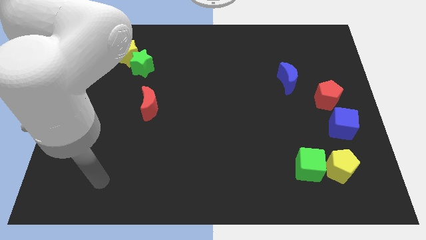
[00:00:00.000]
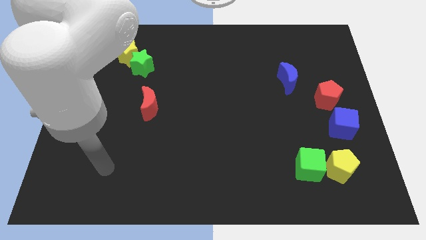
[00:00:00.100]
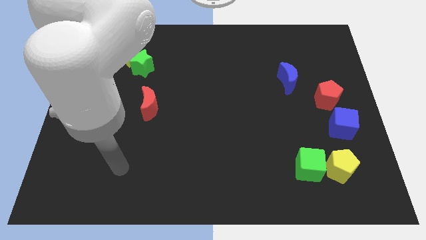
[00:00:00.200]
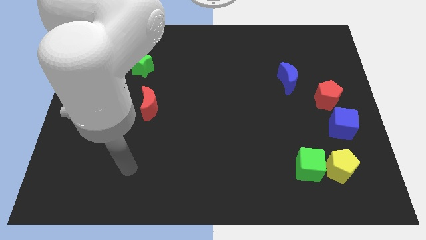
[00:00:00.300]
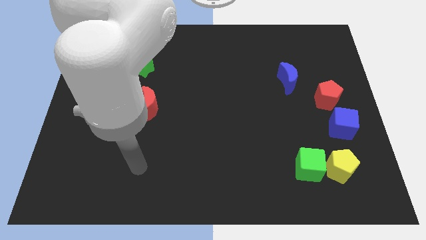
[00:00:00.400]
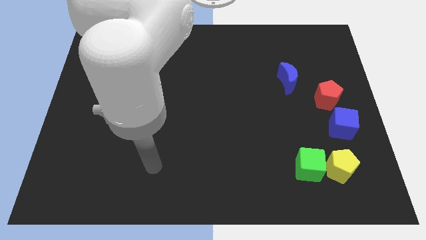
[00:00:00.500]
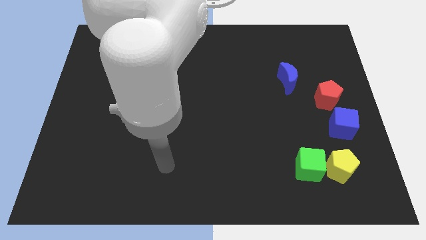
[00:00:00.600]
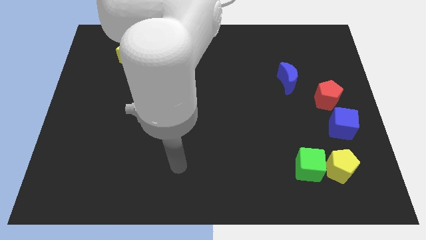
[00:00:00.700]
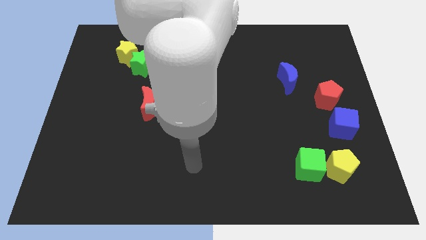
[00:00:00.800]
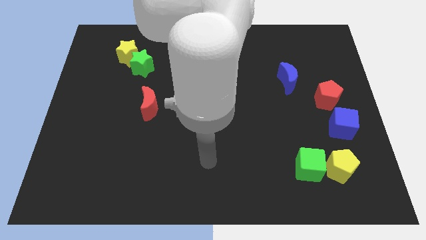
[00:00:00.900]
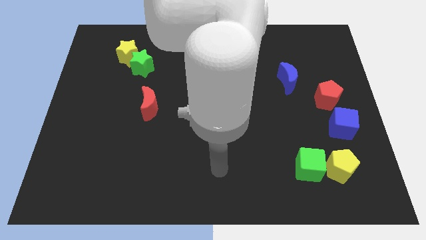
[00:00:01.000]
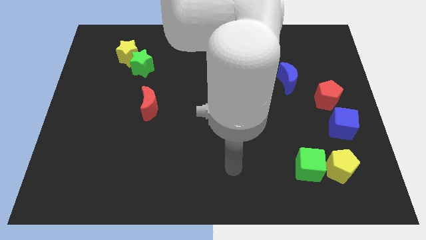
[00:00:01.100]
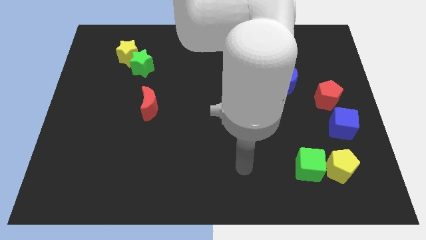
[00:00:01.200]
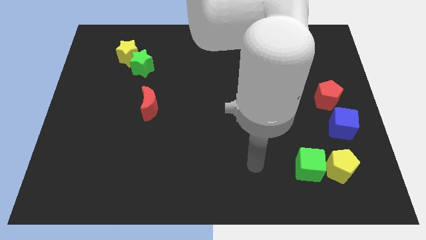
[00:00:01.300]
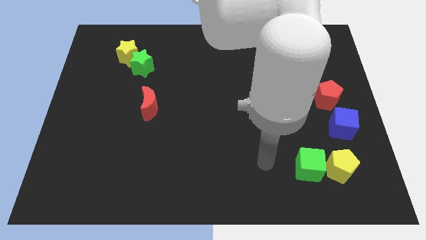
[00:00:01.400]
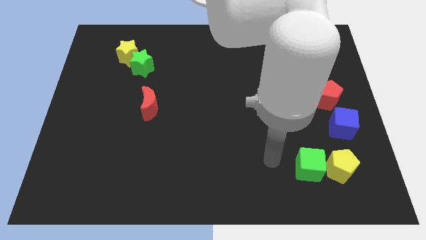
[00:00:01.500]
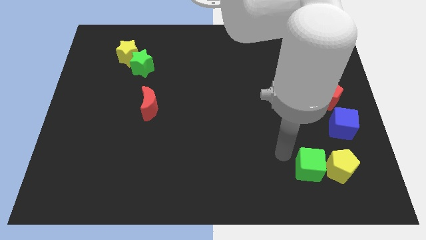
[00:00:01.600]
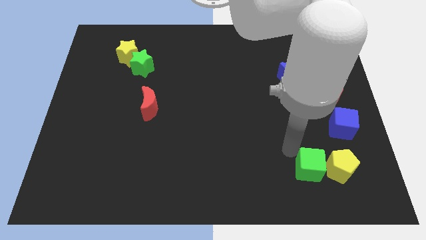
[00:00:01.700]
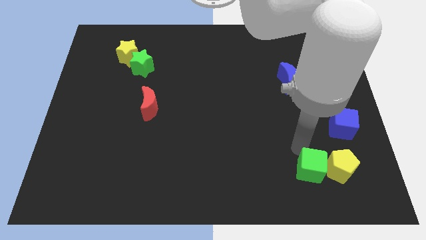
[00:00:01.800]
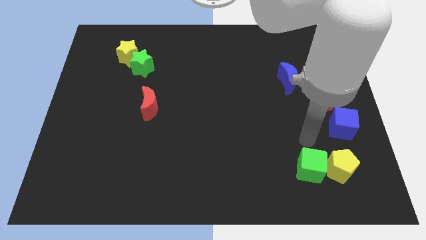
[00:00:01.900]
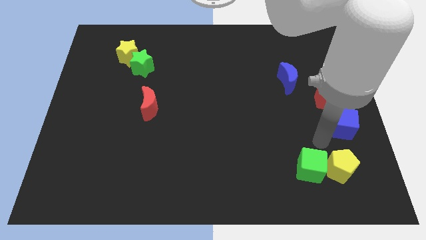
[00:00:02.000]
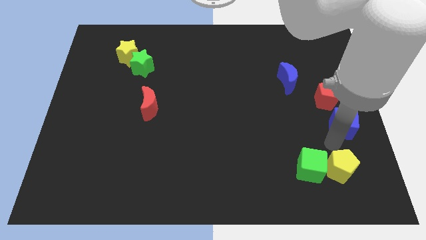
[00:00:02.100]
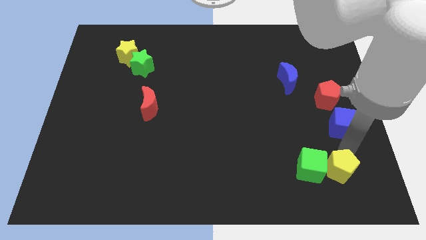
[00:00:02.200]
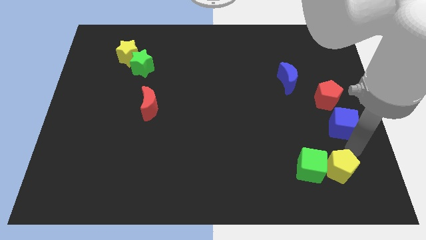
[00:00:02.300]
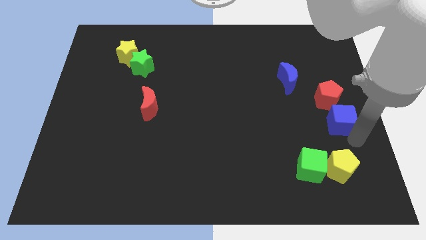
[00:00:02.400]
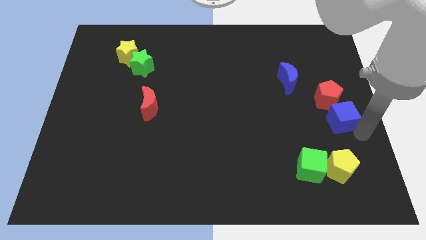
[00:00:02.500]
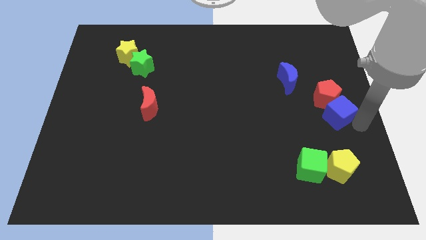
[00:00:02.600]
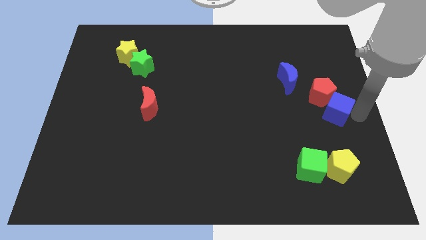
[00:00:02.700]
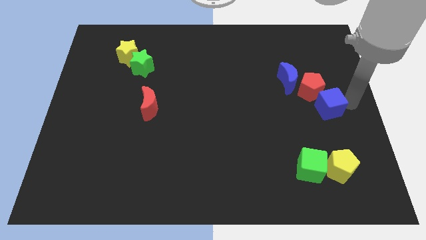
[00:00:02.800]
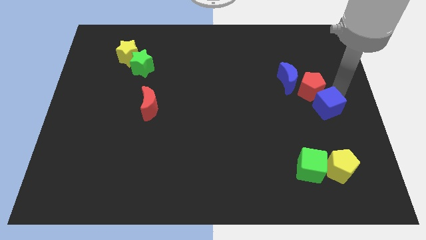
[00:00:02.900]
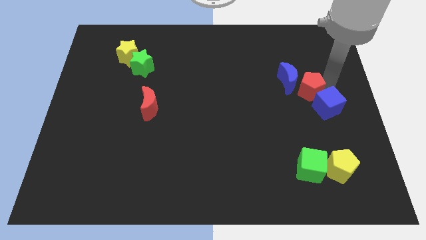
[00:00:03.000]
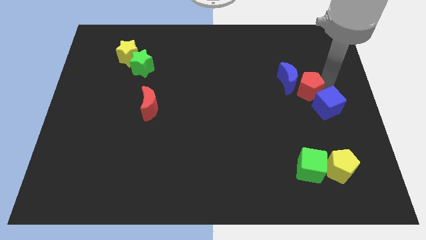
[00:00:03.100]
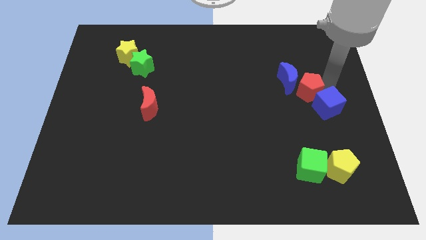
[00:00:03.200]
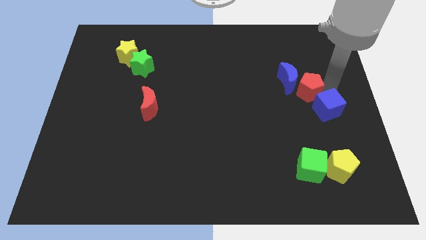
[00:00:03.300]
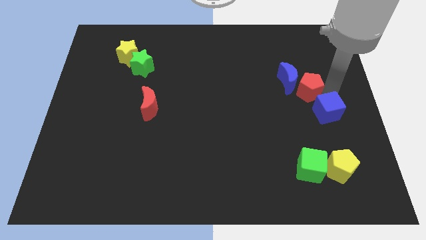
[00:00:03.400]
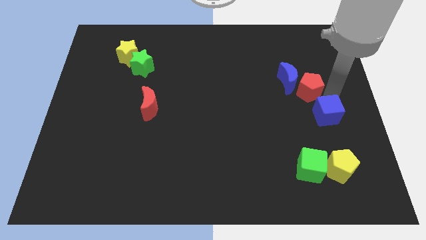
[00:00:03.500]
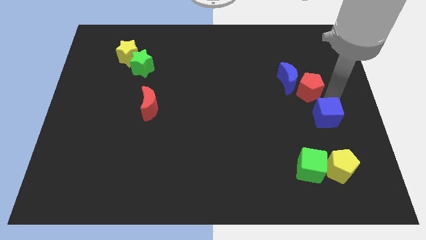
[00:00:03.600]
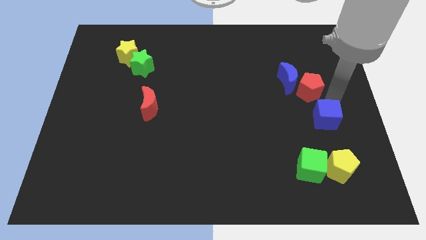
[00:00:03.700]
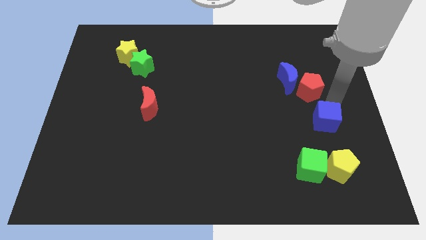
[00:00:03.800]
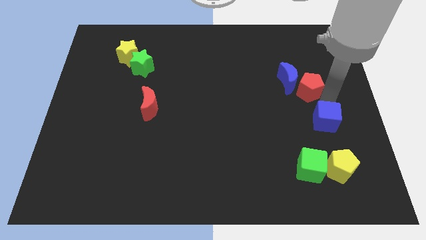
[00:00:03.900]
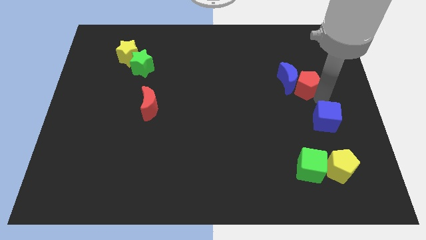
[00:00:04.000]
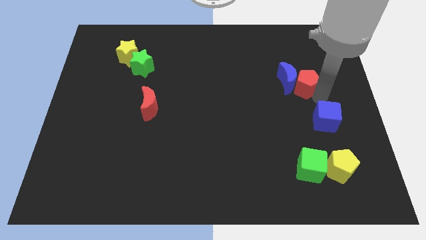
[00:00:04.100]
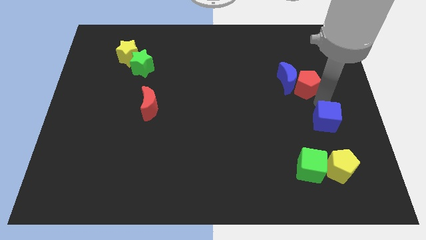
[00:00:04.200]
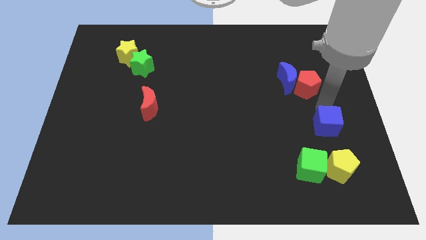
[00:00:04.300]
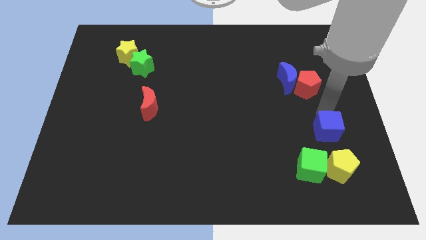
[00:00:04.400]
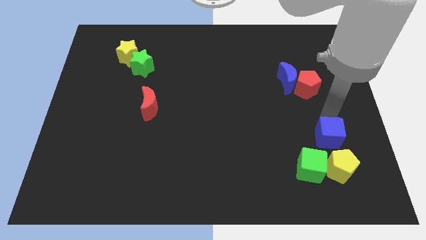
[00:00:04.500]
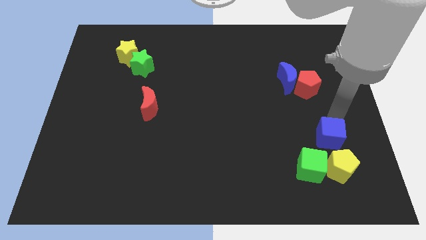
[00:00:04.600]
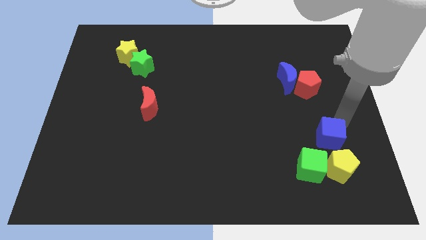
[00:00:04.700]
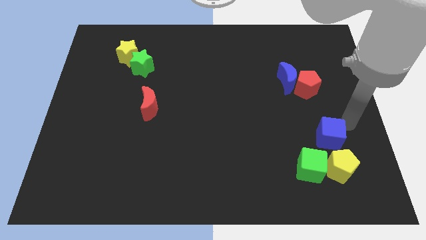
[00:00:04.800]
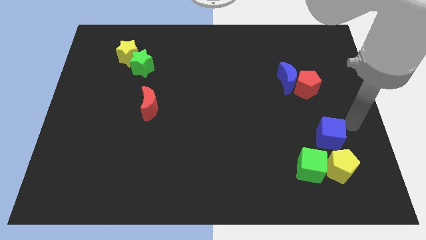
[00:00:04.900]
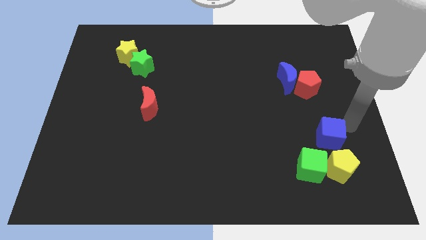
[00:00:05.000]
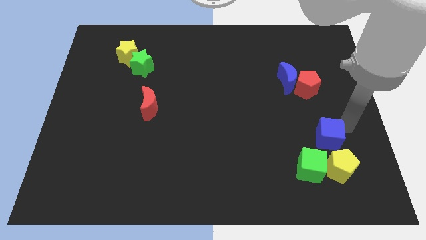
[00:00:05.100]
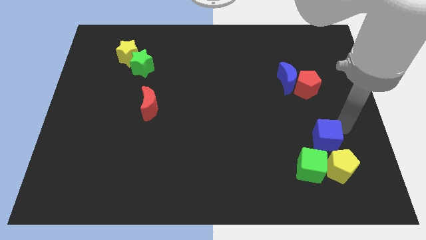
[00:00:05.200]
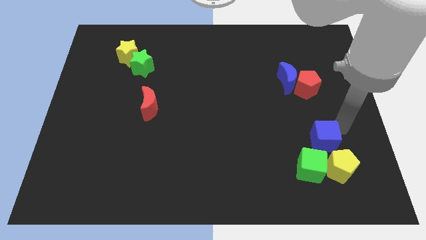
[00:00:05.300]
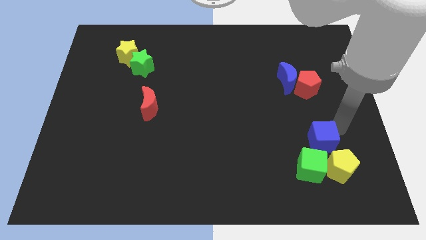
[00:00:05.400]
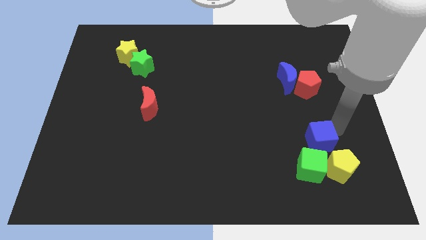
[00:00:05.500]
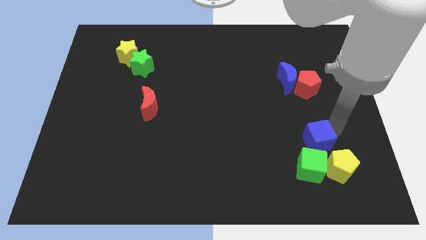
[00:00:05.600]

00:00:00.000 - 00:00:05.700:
move the blue cube downwards and left diagonally a bit

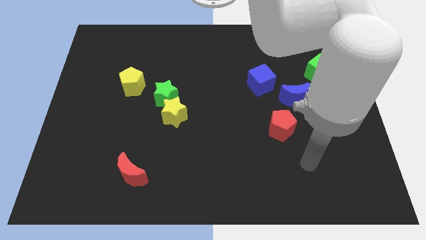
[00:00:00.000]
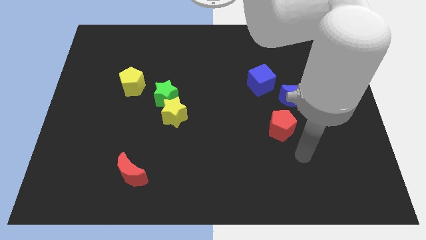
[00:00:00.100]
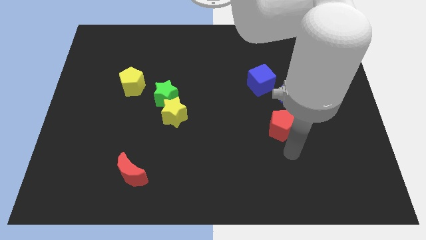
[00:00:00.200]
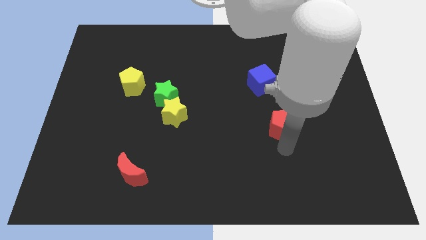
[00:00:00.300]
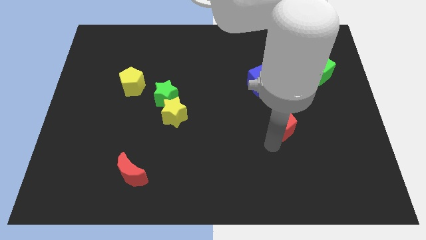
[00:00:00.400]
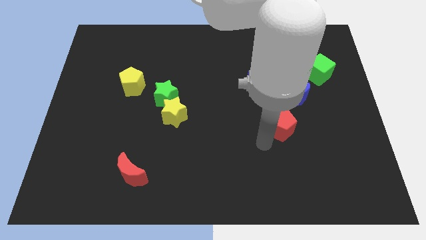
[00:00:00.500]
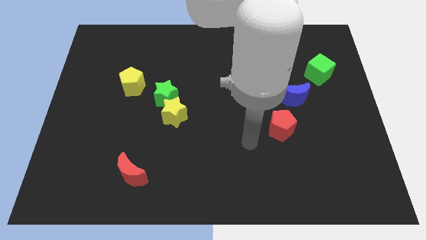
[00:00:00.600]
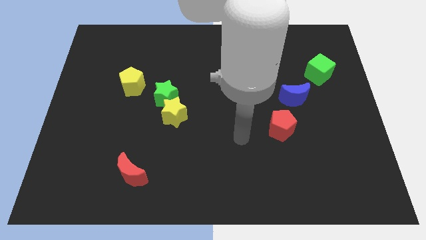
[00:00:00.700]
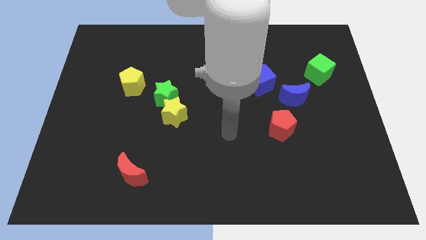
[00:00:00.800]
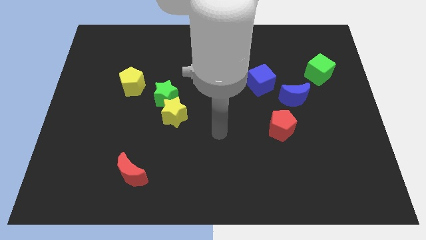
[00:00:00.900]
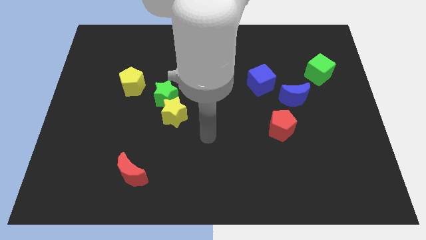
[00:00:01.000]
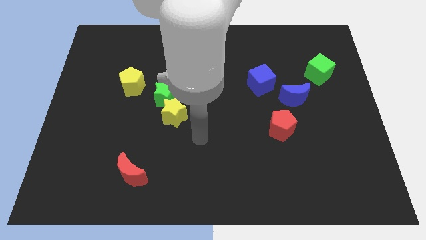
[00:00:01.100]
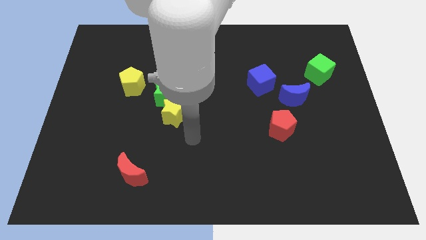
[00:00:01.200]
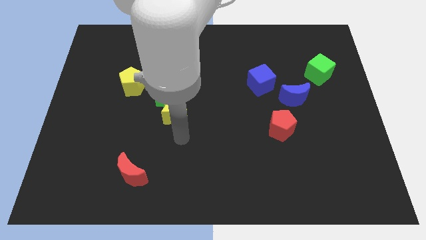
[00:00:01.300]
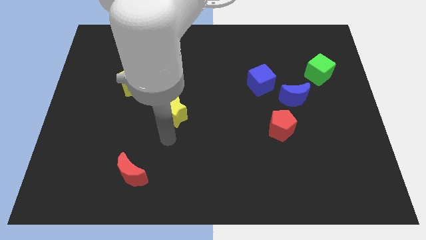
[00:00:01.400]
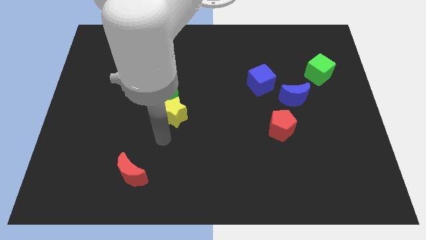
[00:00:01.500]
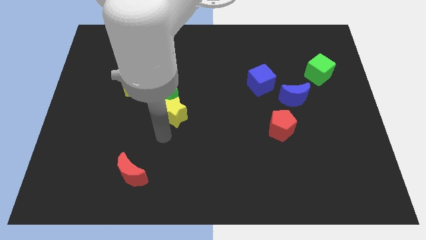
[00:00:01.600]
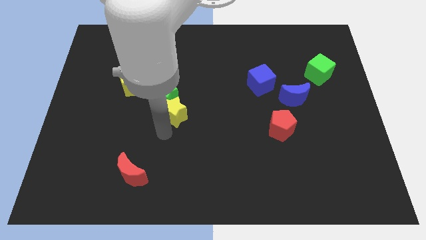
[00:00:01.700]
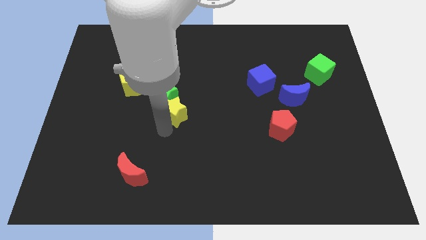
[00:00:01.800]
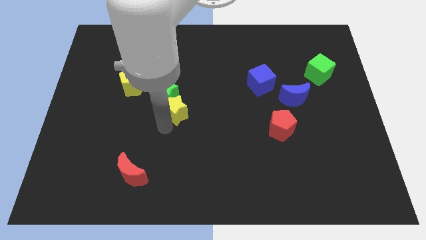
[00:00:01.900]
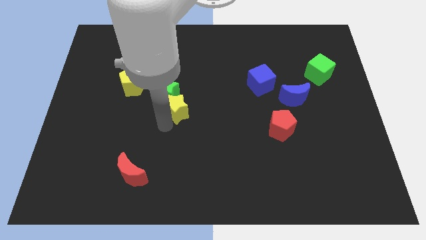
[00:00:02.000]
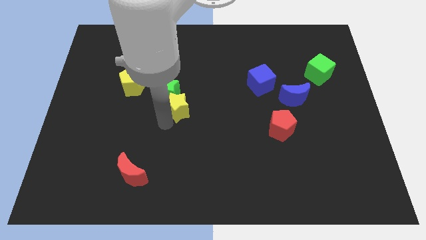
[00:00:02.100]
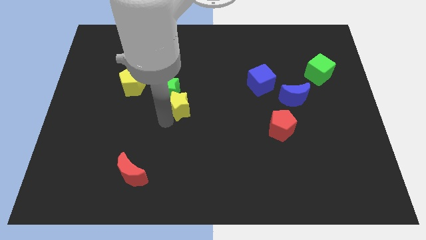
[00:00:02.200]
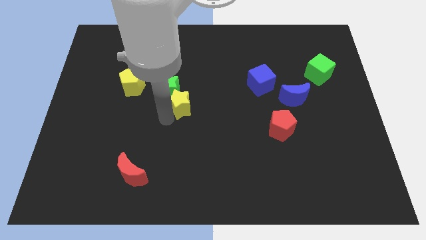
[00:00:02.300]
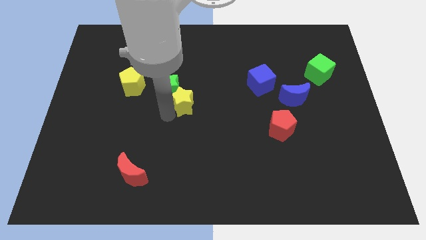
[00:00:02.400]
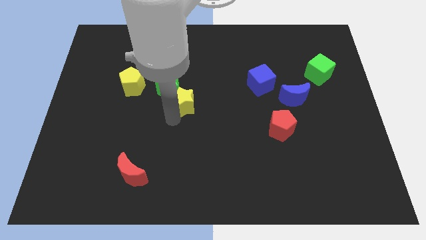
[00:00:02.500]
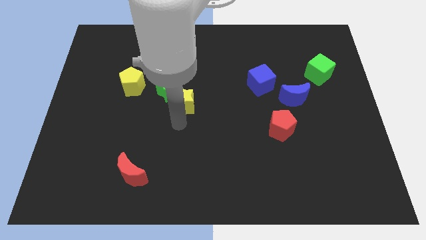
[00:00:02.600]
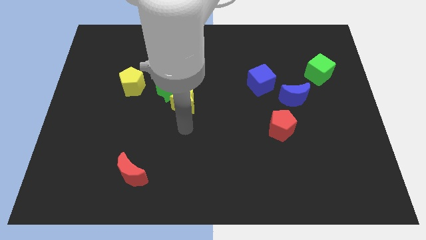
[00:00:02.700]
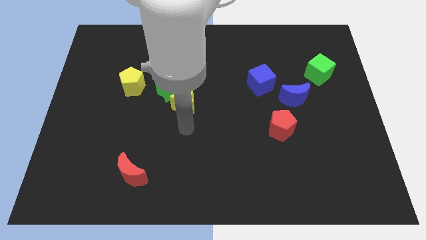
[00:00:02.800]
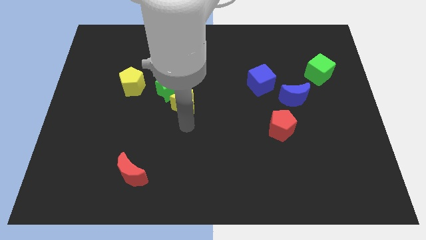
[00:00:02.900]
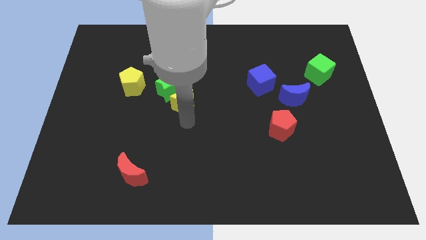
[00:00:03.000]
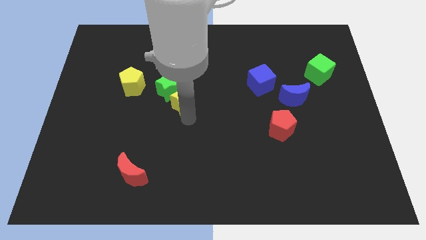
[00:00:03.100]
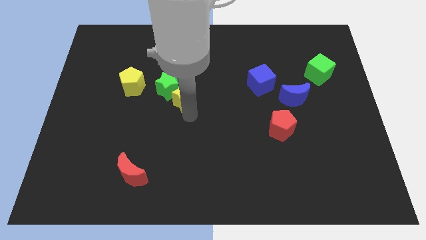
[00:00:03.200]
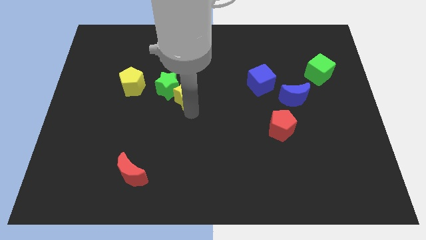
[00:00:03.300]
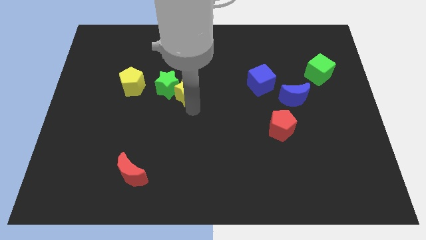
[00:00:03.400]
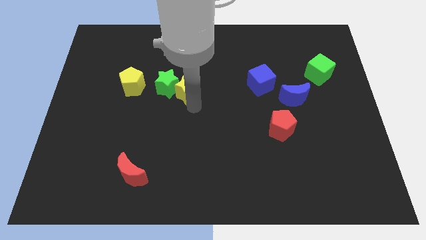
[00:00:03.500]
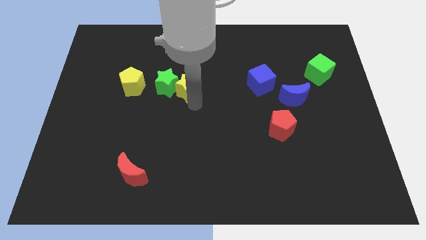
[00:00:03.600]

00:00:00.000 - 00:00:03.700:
slide the yellow star a little bit up
